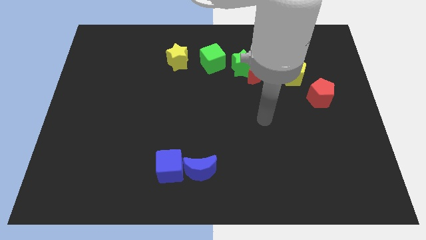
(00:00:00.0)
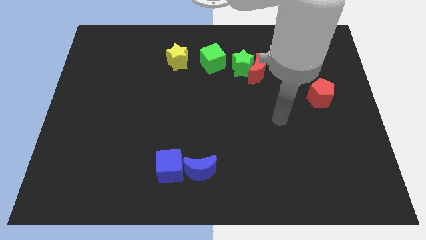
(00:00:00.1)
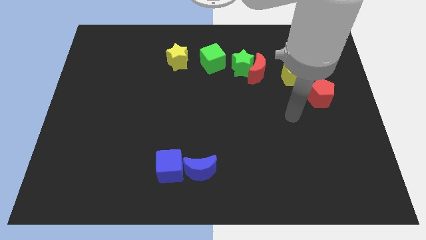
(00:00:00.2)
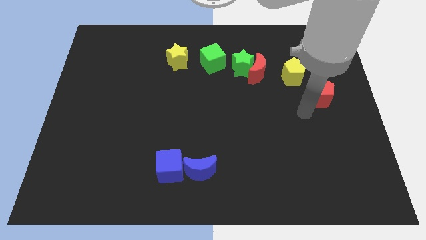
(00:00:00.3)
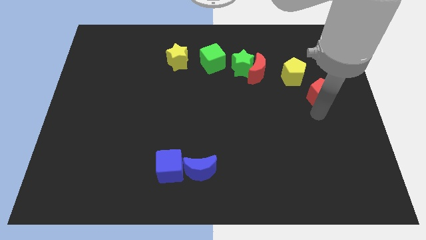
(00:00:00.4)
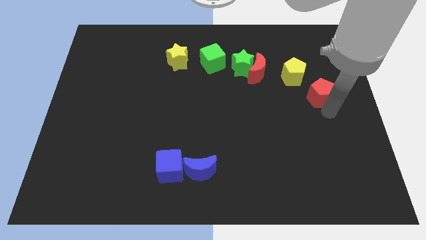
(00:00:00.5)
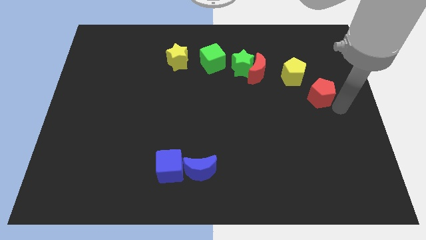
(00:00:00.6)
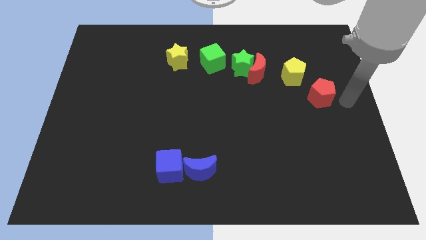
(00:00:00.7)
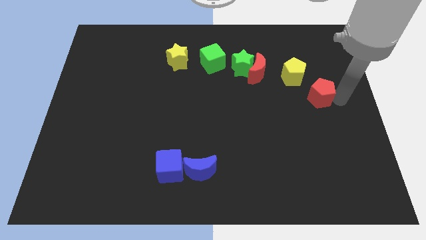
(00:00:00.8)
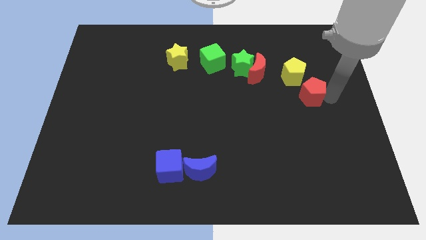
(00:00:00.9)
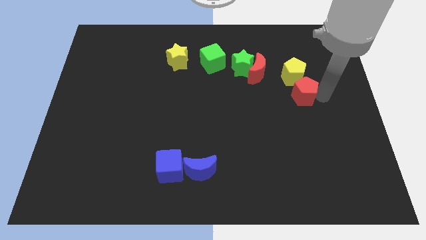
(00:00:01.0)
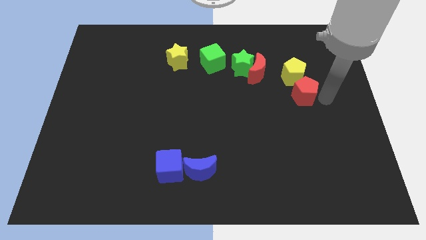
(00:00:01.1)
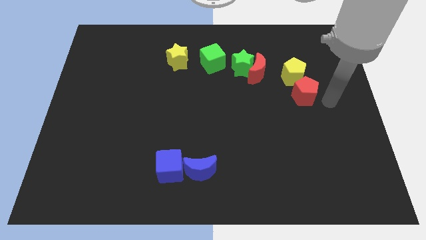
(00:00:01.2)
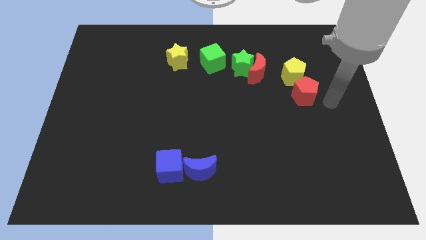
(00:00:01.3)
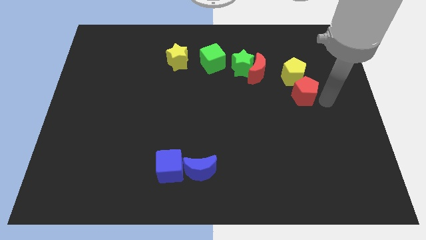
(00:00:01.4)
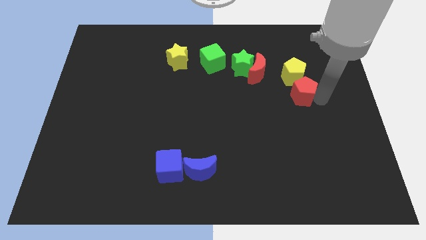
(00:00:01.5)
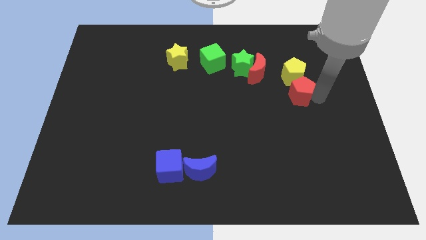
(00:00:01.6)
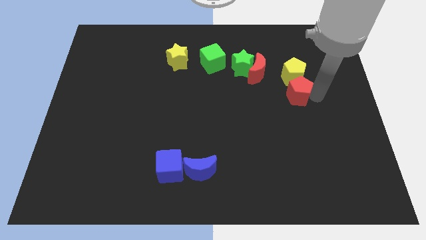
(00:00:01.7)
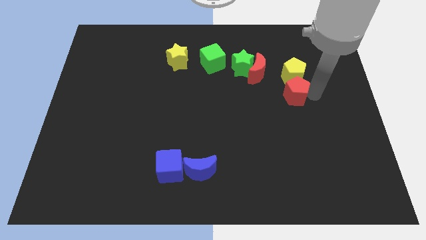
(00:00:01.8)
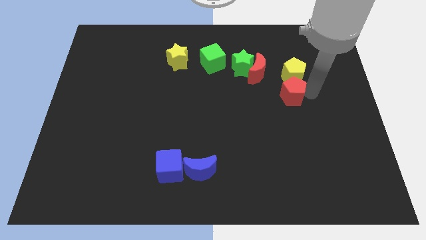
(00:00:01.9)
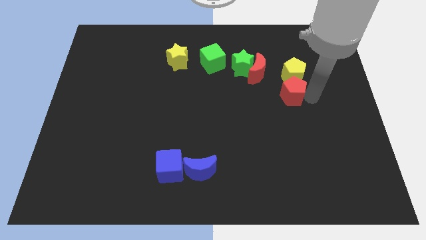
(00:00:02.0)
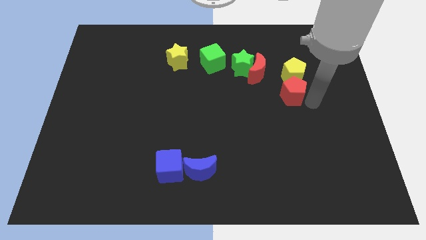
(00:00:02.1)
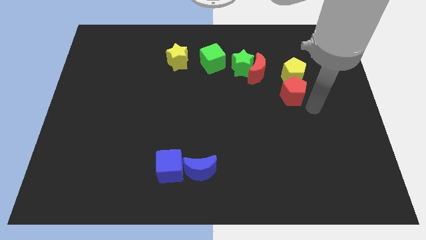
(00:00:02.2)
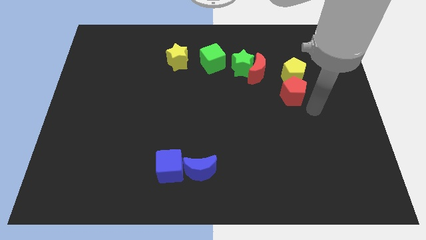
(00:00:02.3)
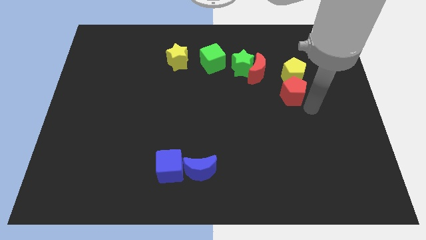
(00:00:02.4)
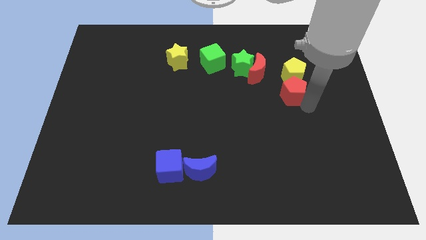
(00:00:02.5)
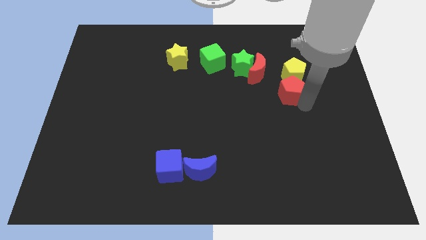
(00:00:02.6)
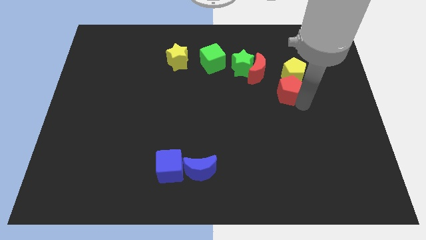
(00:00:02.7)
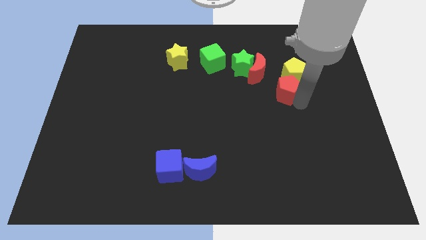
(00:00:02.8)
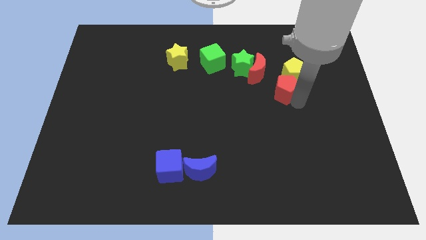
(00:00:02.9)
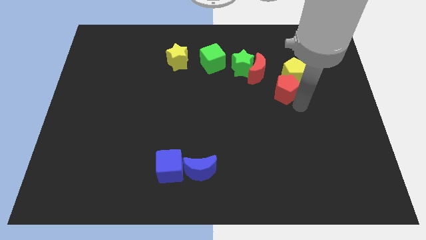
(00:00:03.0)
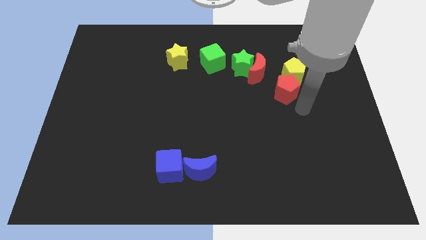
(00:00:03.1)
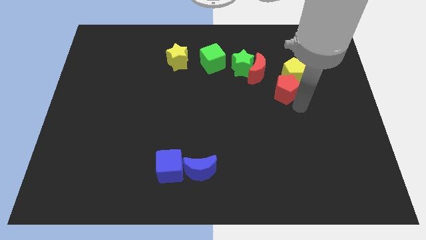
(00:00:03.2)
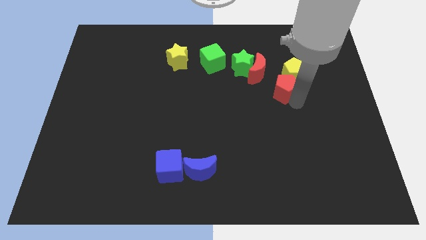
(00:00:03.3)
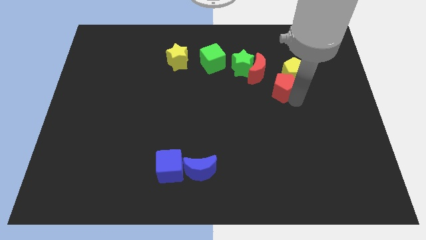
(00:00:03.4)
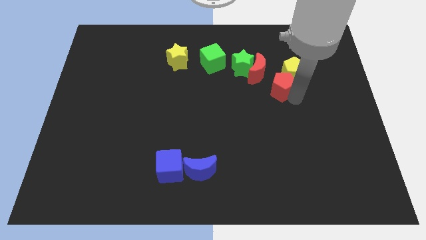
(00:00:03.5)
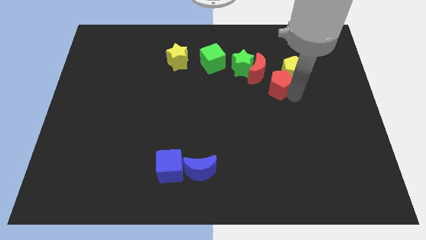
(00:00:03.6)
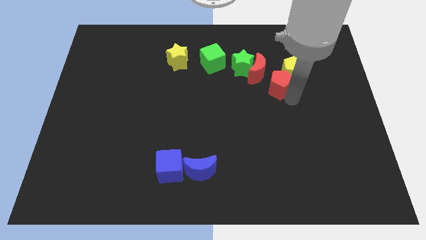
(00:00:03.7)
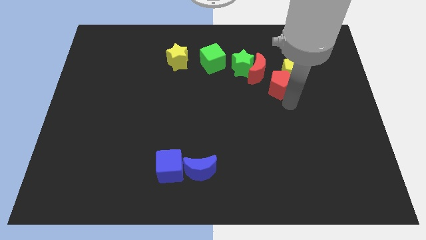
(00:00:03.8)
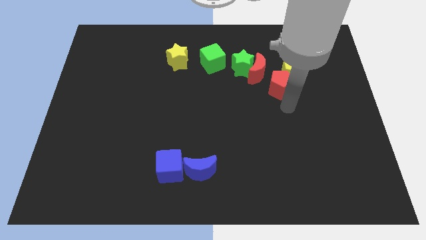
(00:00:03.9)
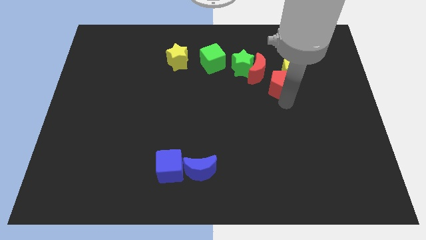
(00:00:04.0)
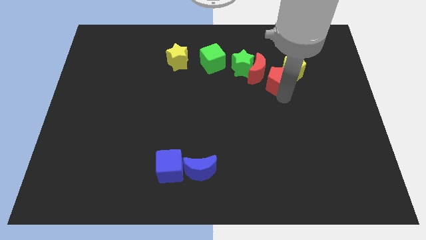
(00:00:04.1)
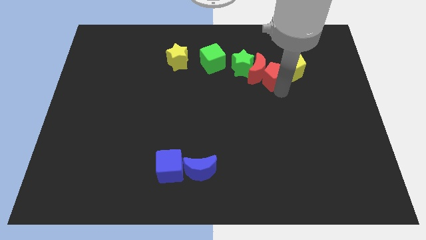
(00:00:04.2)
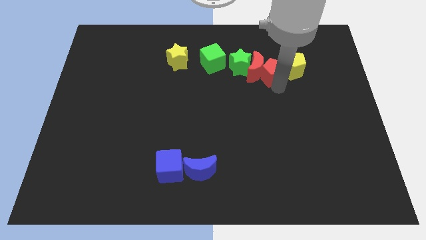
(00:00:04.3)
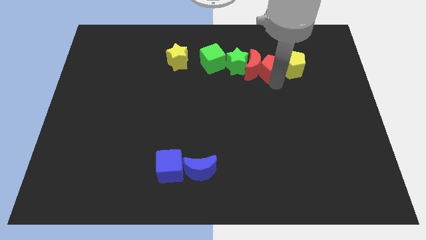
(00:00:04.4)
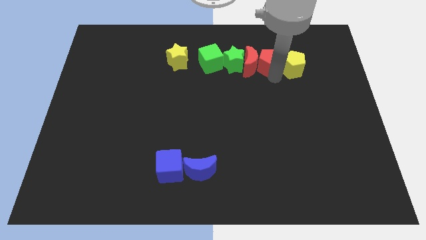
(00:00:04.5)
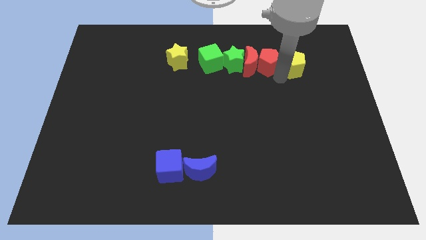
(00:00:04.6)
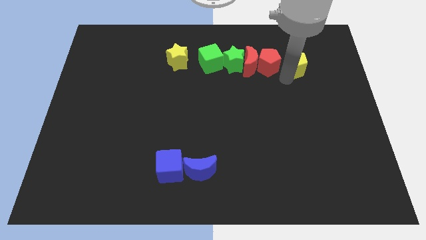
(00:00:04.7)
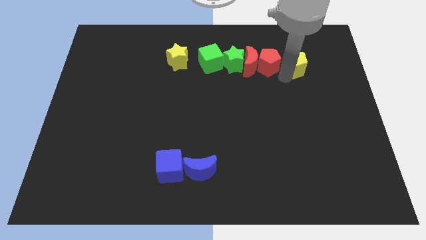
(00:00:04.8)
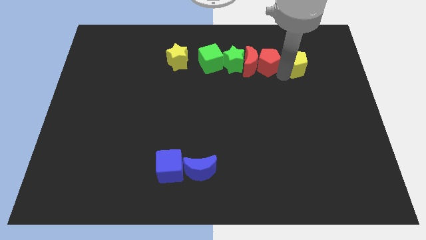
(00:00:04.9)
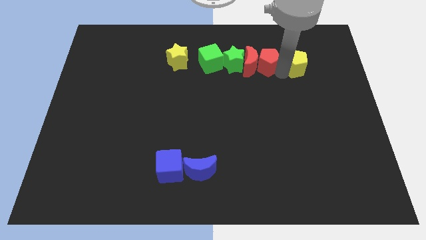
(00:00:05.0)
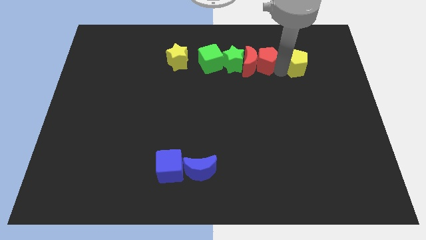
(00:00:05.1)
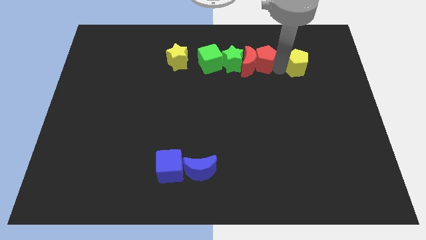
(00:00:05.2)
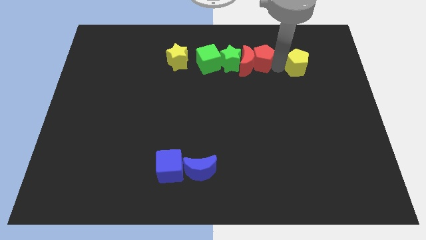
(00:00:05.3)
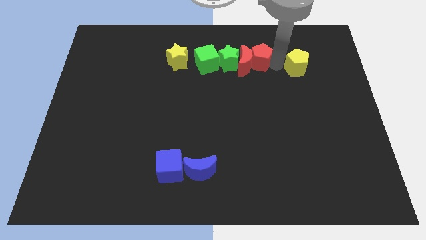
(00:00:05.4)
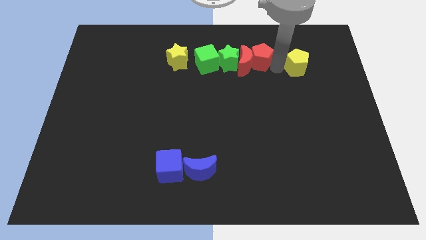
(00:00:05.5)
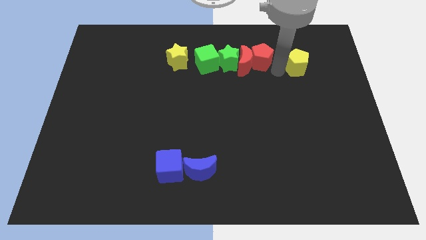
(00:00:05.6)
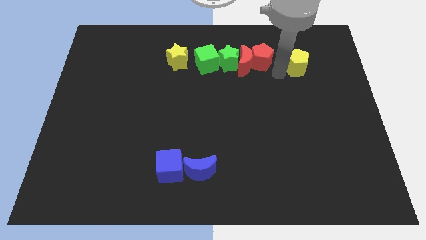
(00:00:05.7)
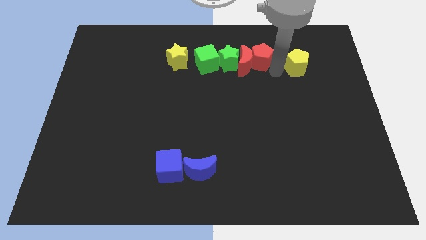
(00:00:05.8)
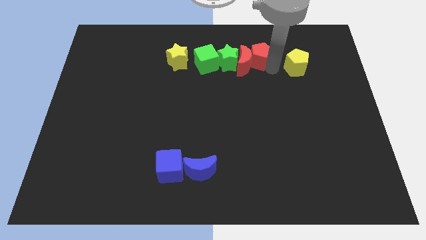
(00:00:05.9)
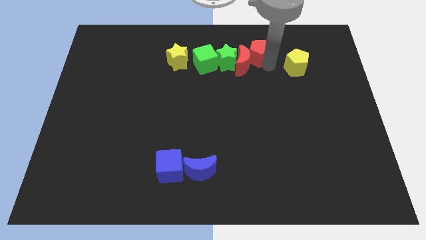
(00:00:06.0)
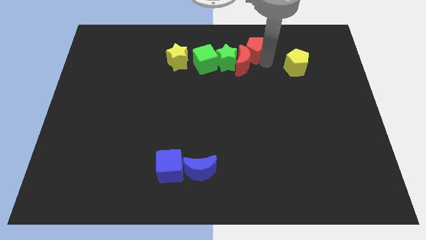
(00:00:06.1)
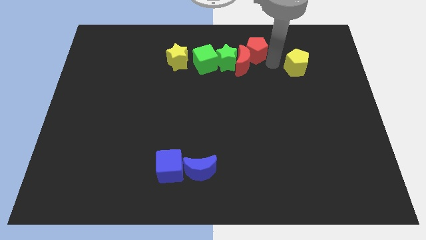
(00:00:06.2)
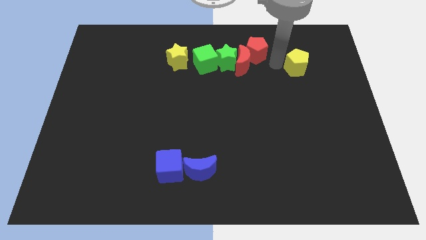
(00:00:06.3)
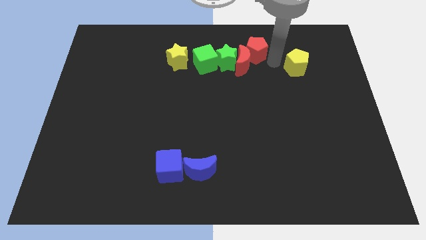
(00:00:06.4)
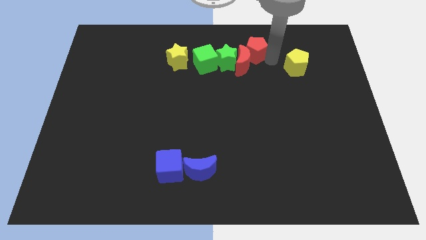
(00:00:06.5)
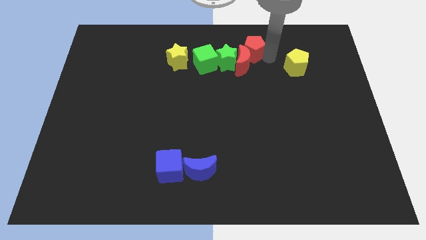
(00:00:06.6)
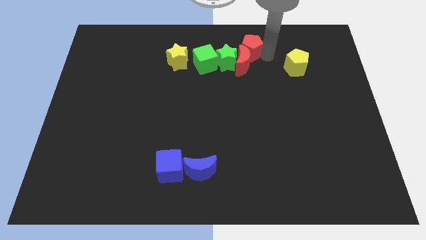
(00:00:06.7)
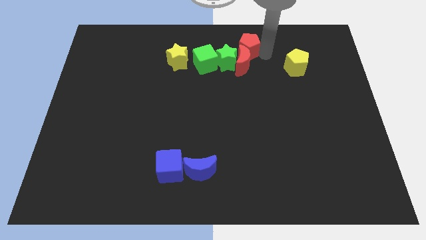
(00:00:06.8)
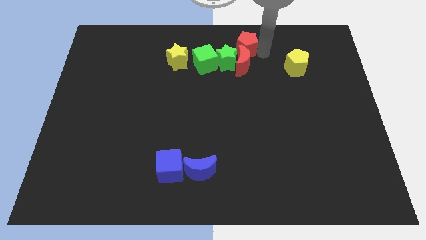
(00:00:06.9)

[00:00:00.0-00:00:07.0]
move the red pentagon to the towards your base

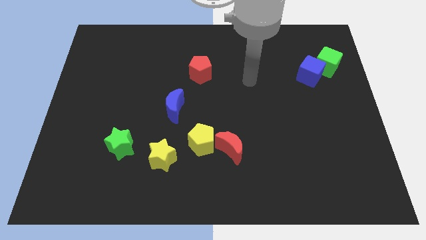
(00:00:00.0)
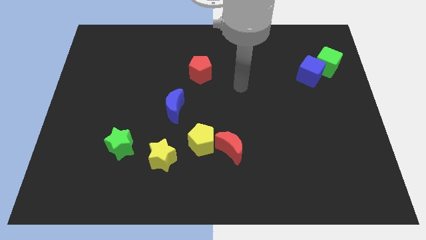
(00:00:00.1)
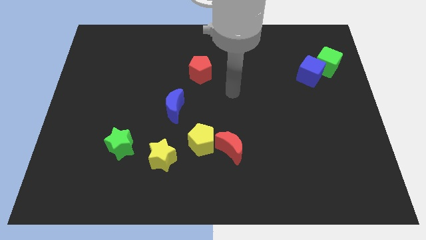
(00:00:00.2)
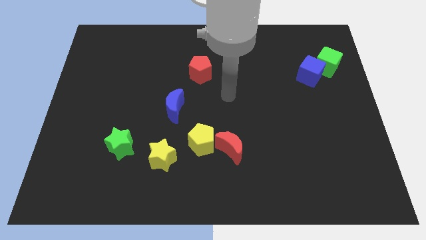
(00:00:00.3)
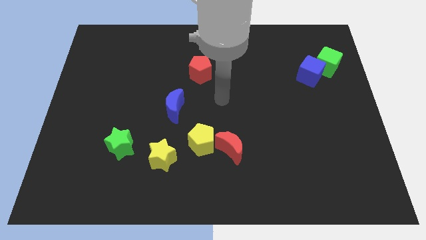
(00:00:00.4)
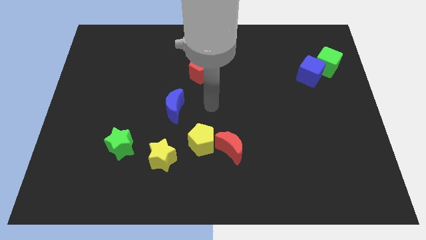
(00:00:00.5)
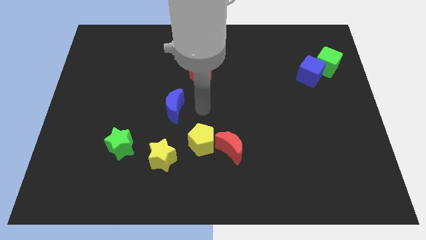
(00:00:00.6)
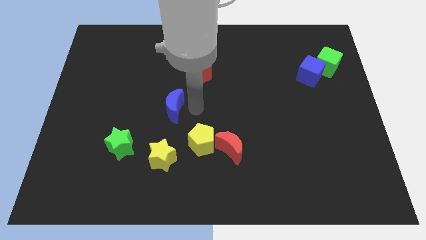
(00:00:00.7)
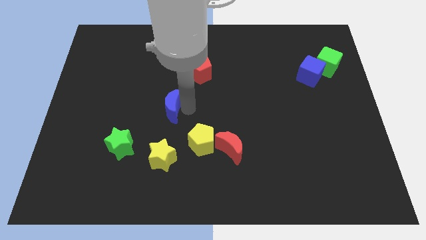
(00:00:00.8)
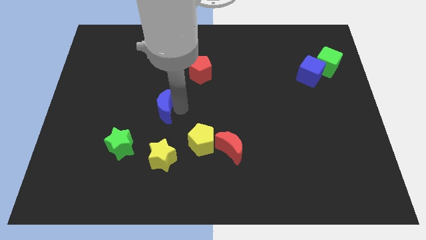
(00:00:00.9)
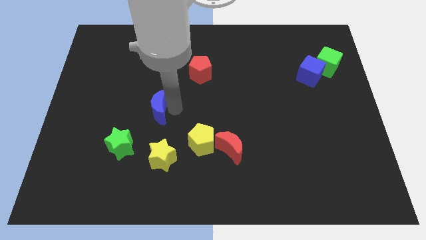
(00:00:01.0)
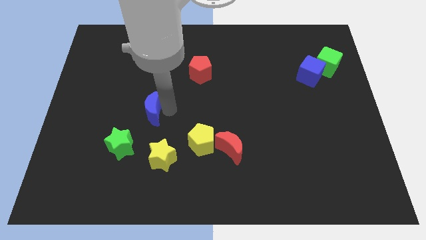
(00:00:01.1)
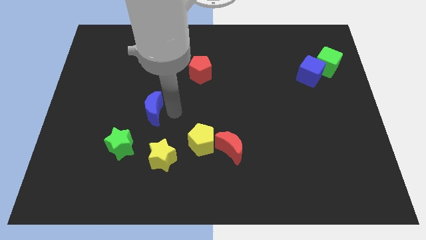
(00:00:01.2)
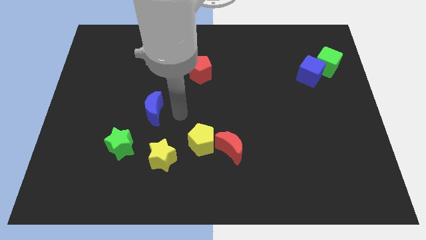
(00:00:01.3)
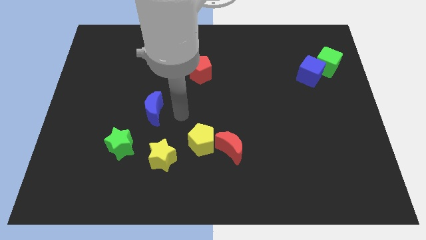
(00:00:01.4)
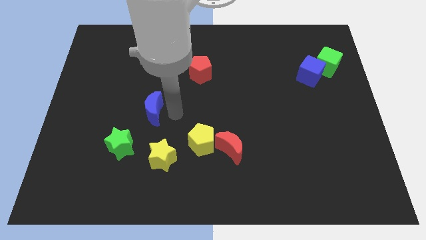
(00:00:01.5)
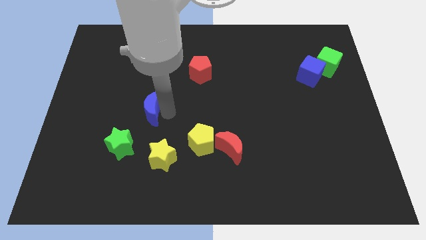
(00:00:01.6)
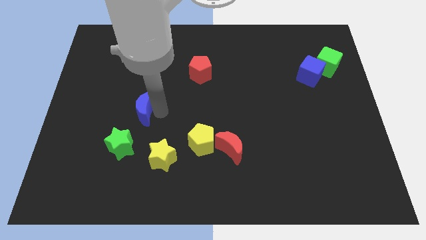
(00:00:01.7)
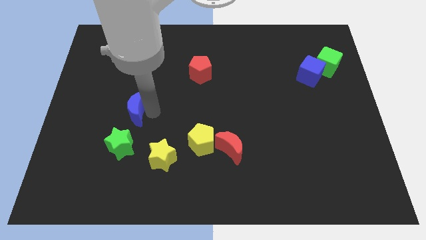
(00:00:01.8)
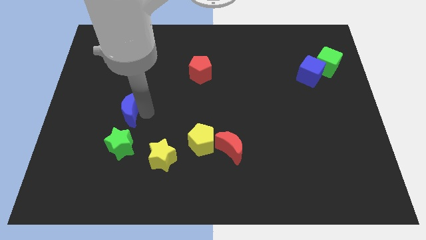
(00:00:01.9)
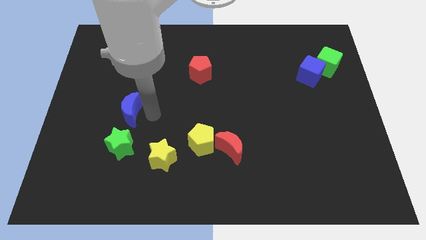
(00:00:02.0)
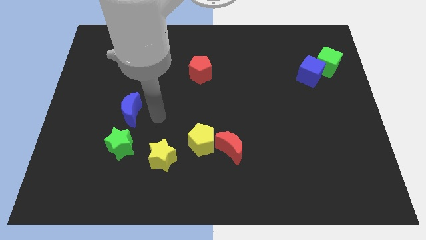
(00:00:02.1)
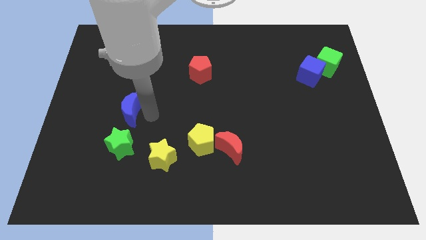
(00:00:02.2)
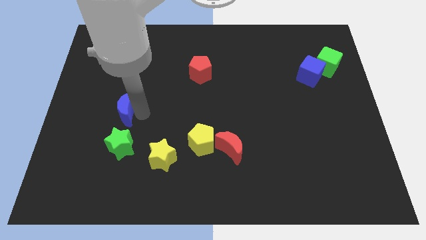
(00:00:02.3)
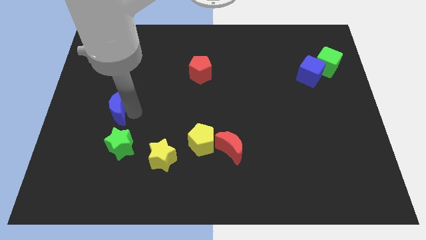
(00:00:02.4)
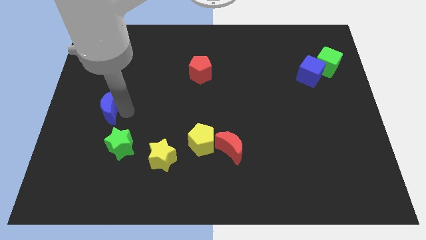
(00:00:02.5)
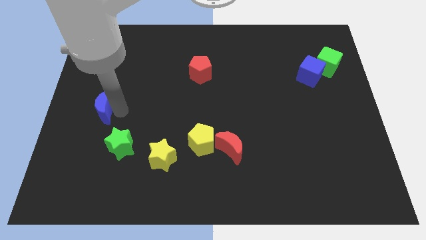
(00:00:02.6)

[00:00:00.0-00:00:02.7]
put the blue moon to the center left
